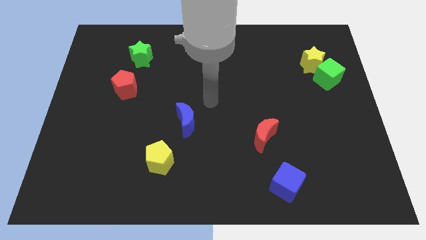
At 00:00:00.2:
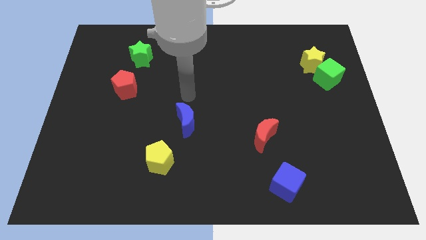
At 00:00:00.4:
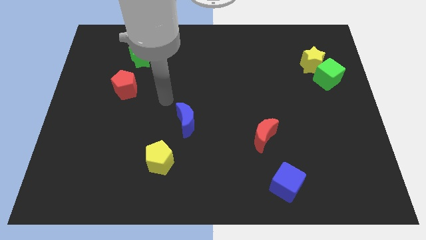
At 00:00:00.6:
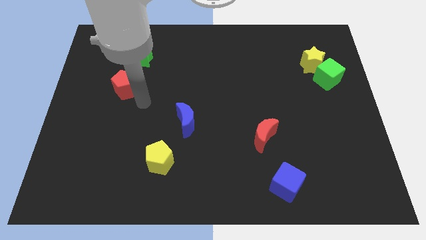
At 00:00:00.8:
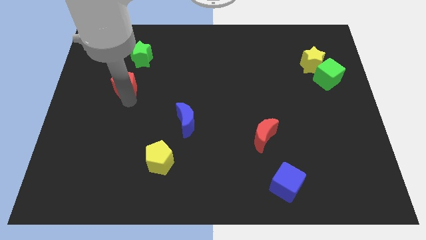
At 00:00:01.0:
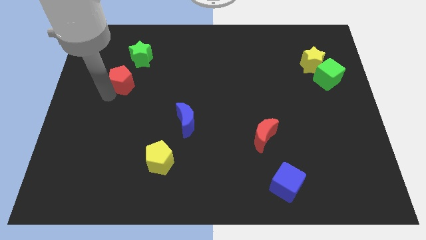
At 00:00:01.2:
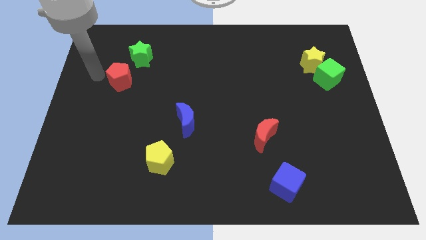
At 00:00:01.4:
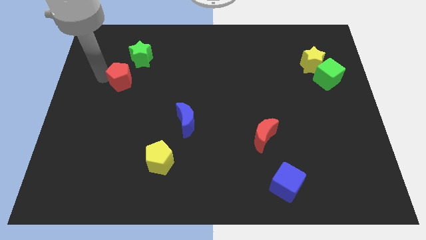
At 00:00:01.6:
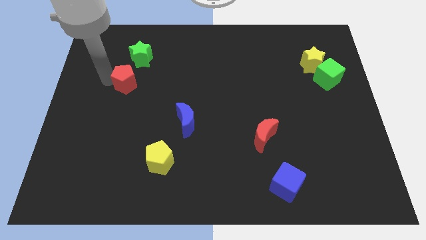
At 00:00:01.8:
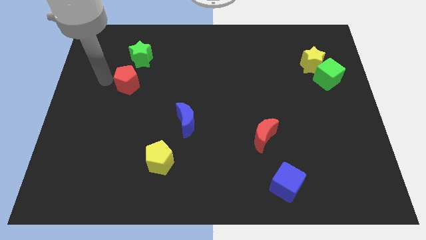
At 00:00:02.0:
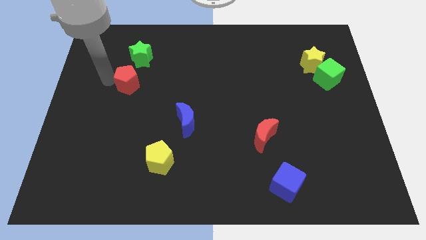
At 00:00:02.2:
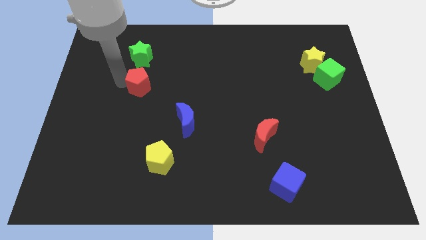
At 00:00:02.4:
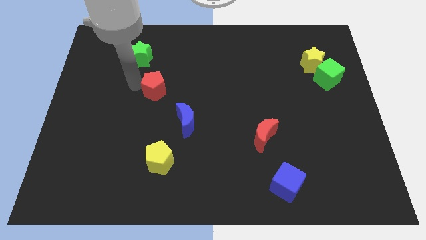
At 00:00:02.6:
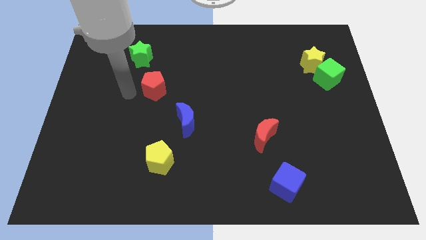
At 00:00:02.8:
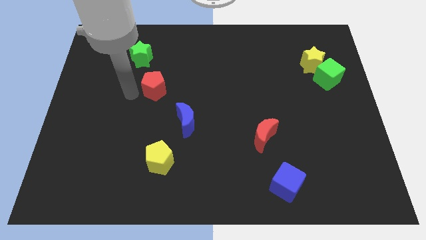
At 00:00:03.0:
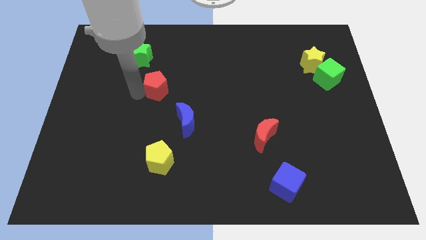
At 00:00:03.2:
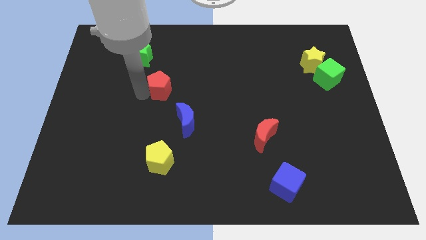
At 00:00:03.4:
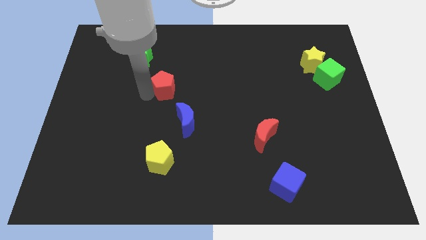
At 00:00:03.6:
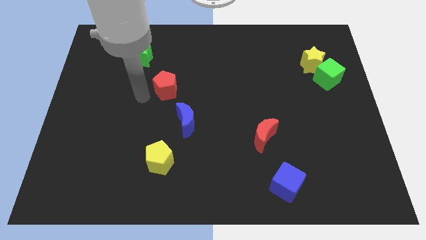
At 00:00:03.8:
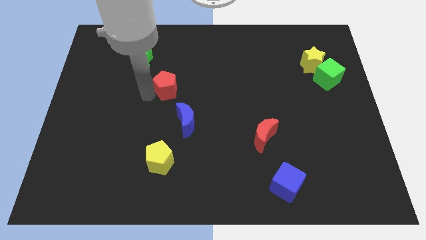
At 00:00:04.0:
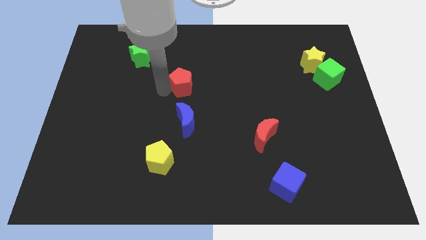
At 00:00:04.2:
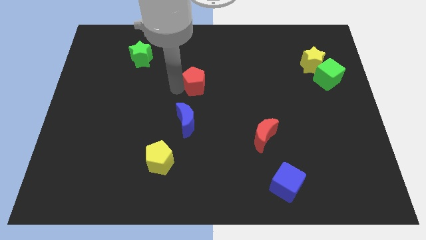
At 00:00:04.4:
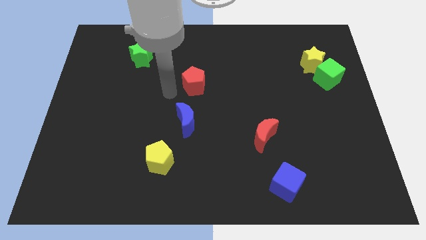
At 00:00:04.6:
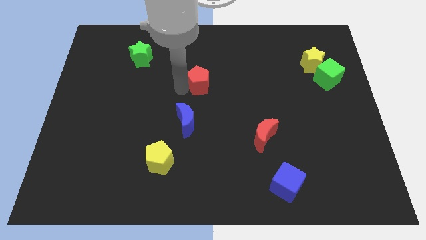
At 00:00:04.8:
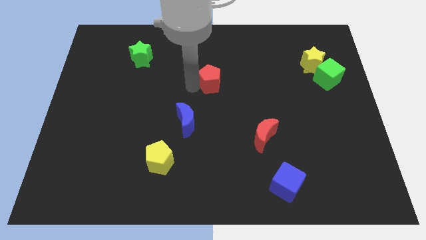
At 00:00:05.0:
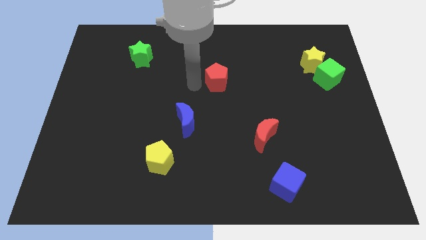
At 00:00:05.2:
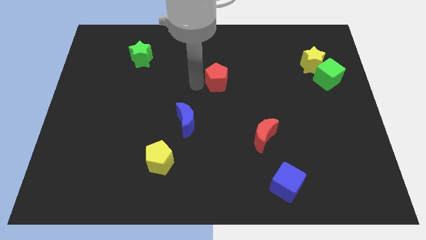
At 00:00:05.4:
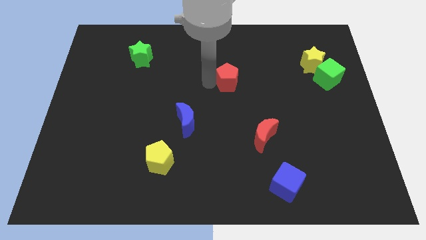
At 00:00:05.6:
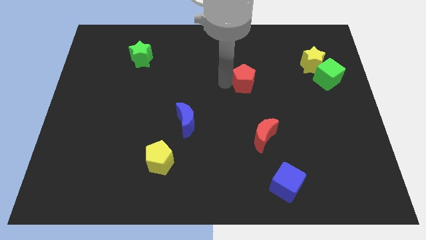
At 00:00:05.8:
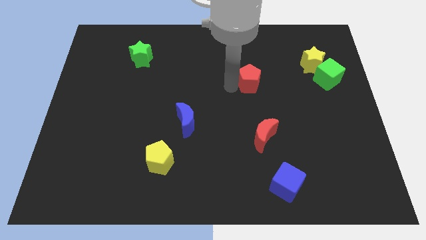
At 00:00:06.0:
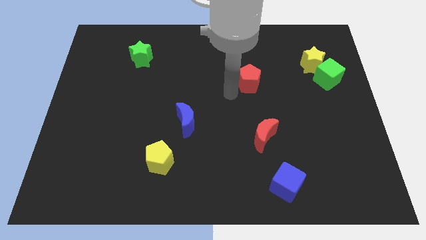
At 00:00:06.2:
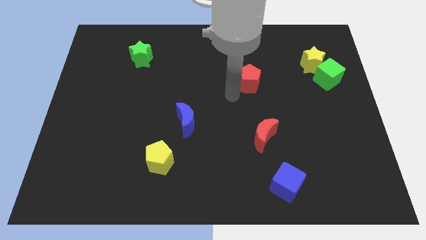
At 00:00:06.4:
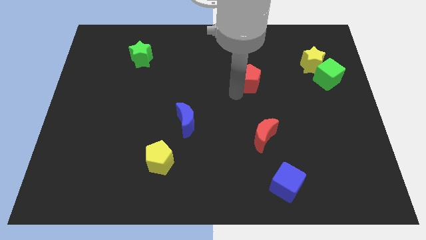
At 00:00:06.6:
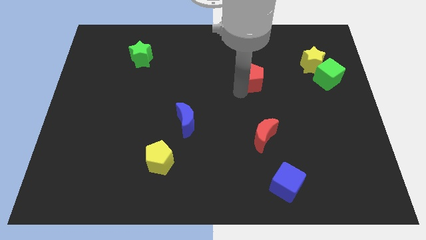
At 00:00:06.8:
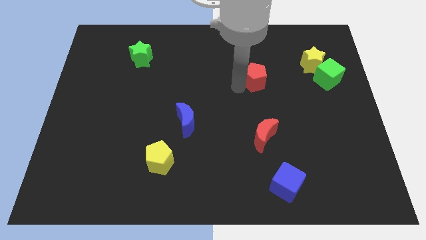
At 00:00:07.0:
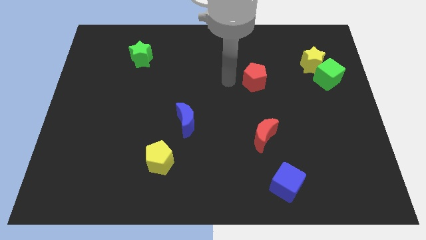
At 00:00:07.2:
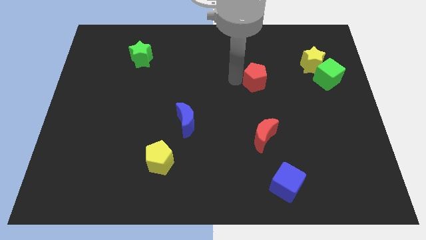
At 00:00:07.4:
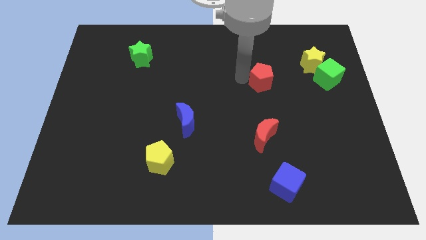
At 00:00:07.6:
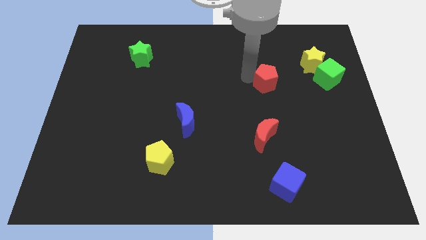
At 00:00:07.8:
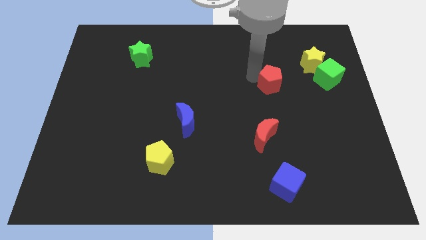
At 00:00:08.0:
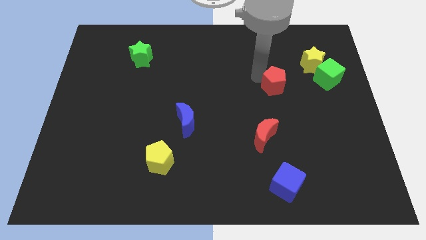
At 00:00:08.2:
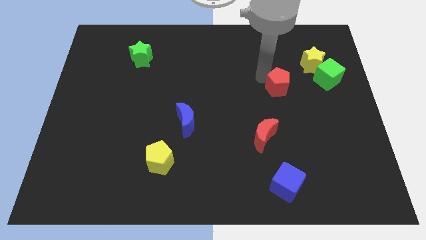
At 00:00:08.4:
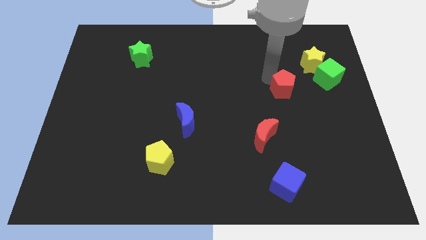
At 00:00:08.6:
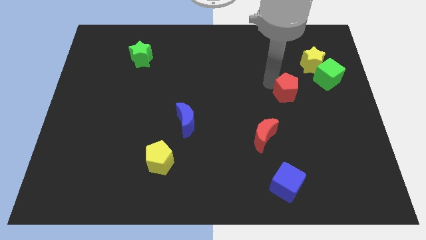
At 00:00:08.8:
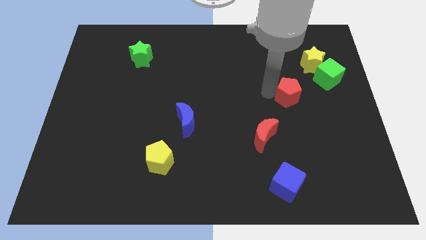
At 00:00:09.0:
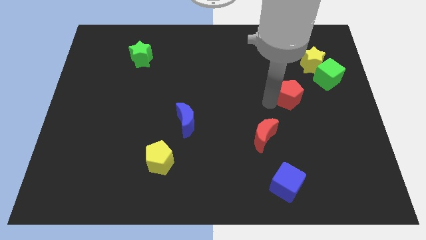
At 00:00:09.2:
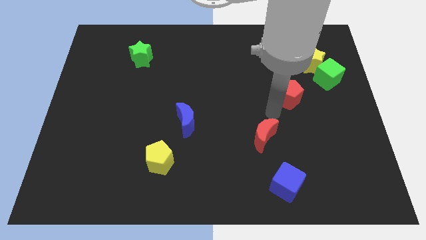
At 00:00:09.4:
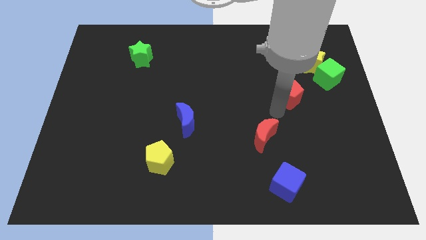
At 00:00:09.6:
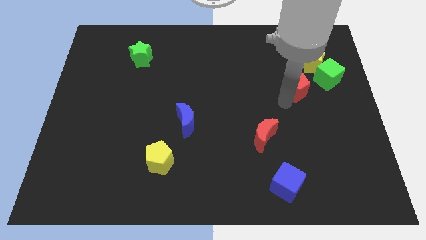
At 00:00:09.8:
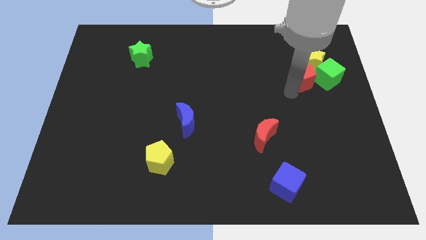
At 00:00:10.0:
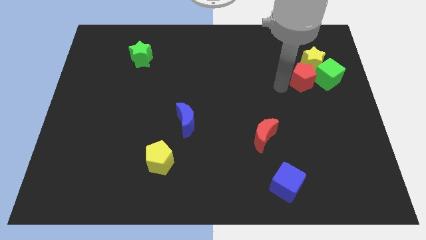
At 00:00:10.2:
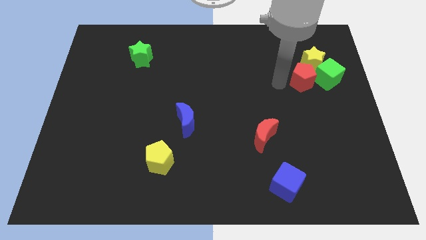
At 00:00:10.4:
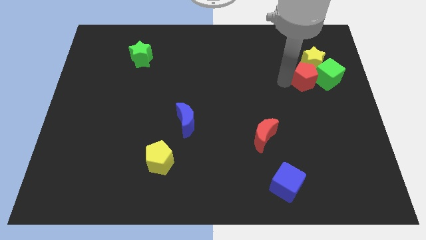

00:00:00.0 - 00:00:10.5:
slide the red pentagon towards the green cube

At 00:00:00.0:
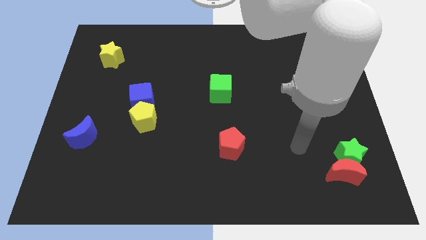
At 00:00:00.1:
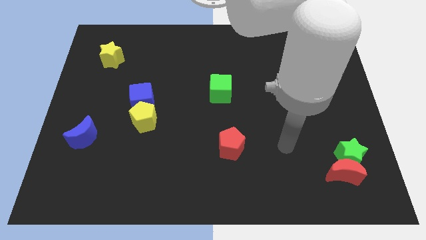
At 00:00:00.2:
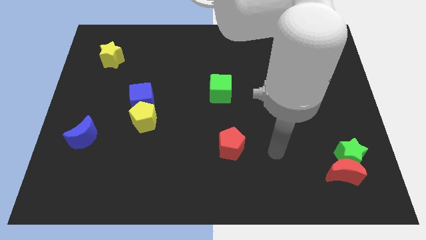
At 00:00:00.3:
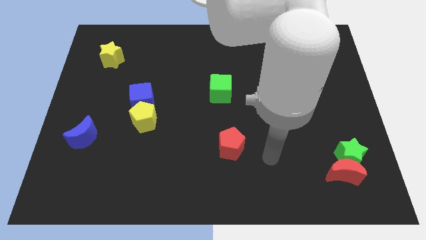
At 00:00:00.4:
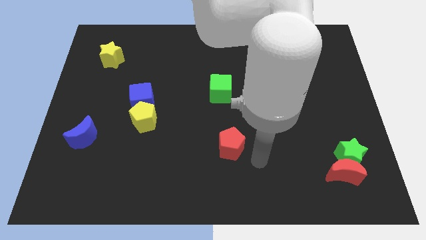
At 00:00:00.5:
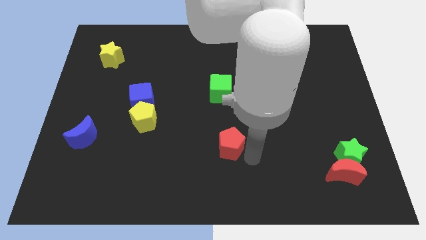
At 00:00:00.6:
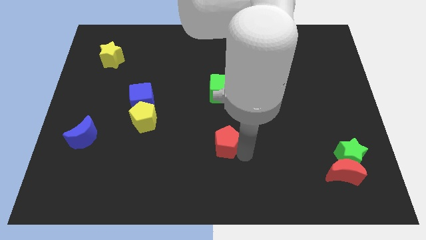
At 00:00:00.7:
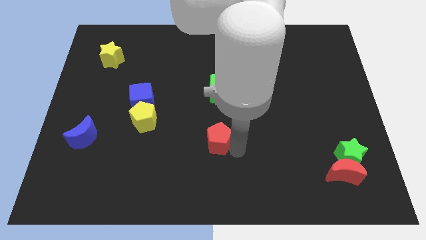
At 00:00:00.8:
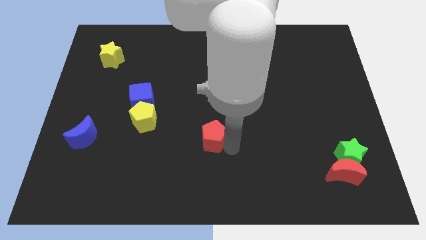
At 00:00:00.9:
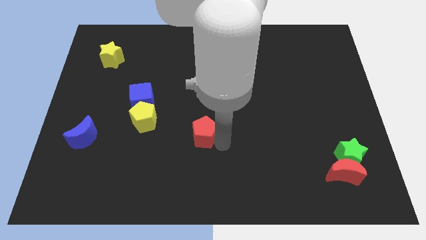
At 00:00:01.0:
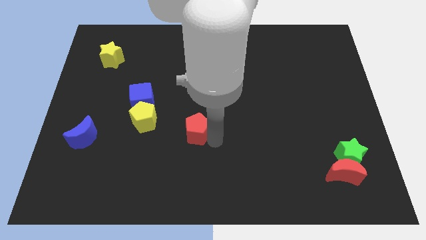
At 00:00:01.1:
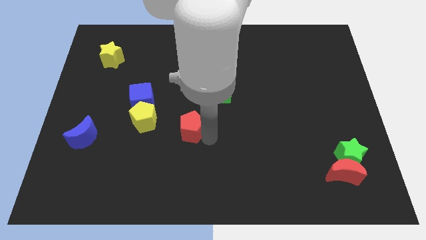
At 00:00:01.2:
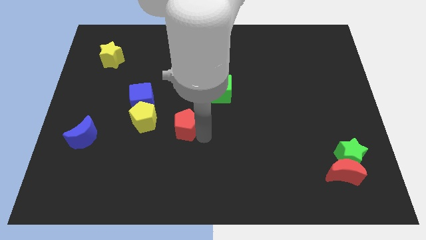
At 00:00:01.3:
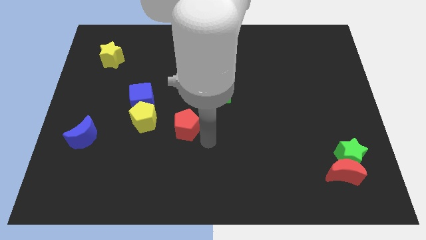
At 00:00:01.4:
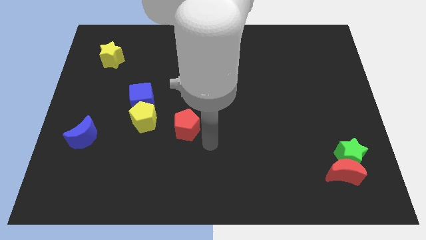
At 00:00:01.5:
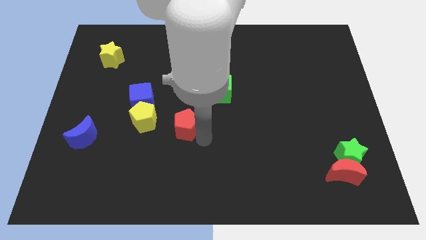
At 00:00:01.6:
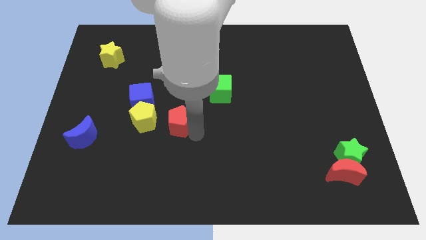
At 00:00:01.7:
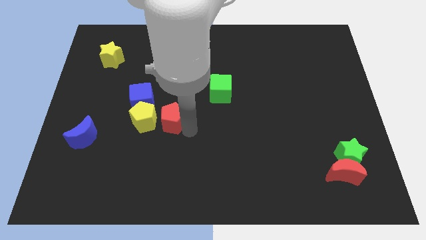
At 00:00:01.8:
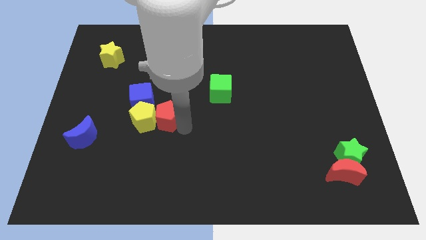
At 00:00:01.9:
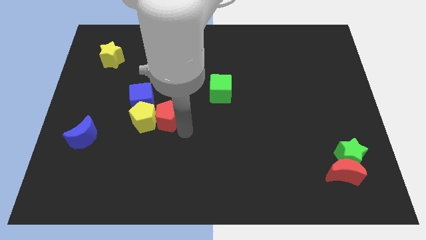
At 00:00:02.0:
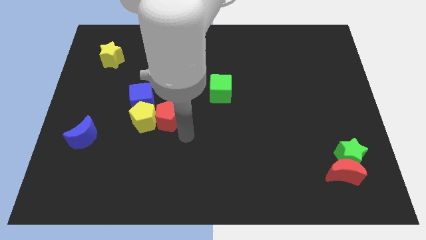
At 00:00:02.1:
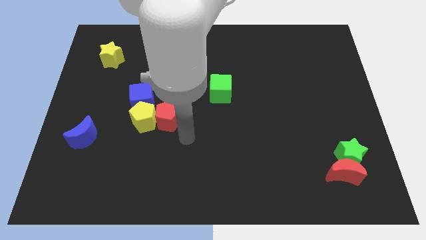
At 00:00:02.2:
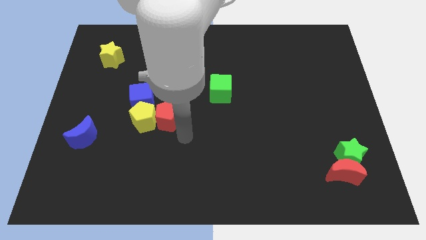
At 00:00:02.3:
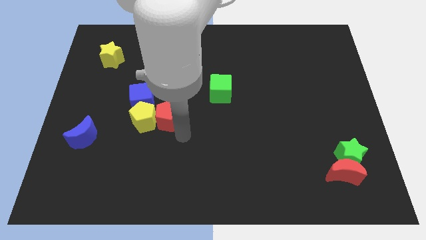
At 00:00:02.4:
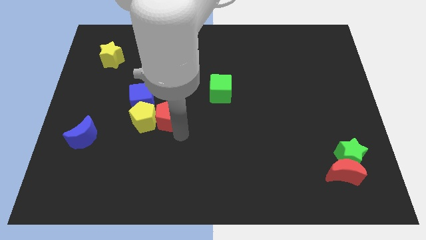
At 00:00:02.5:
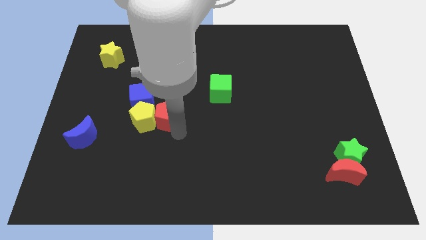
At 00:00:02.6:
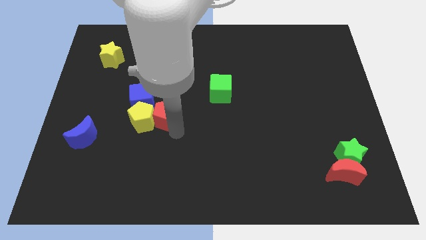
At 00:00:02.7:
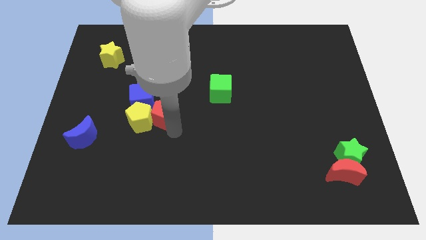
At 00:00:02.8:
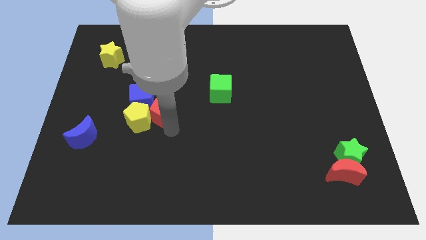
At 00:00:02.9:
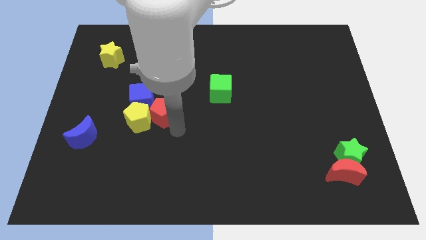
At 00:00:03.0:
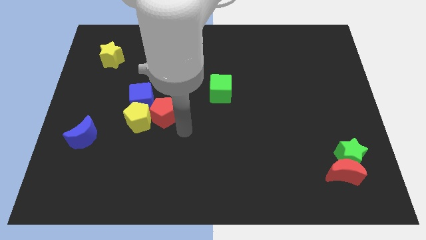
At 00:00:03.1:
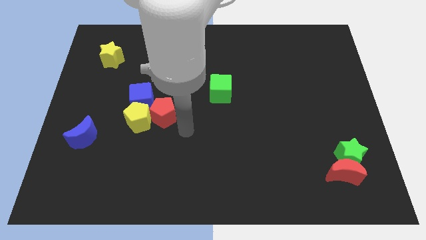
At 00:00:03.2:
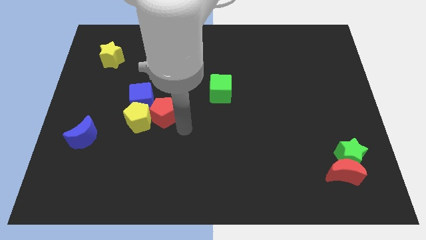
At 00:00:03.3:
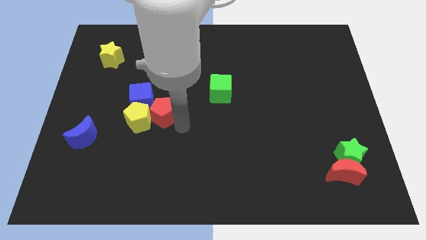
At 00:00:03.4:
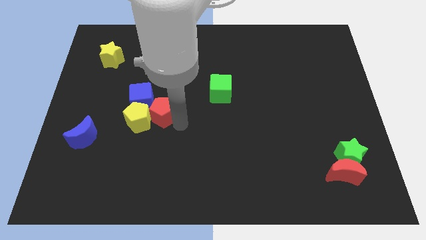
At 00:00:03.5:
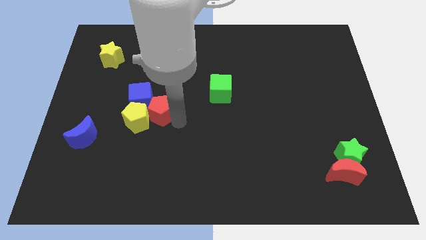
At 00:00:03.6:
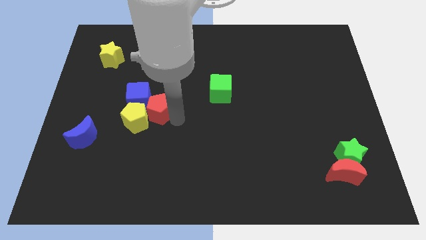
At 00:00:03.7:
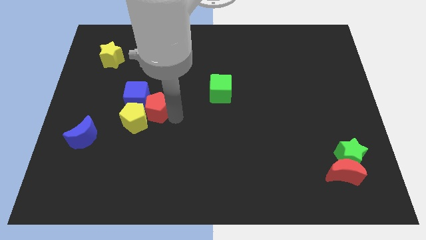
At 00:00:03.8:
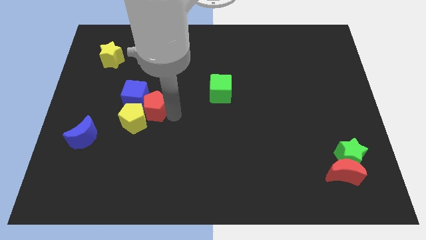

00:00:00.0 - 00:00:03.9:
put the red pentagon next to the blue cube
